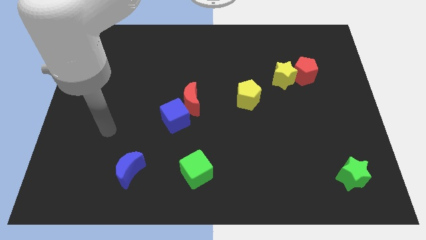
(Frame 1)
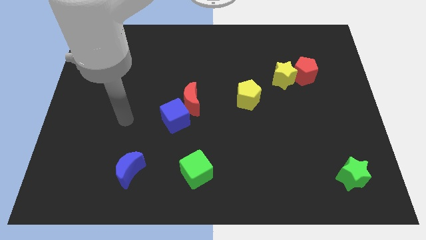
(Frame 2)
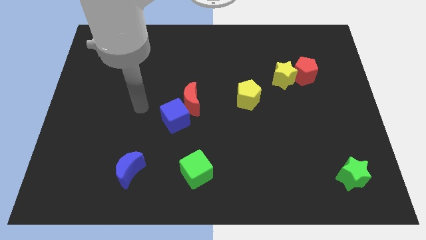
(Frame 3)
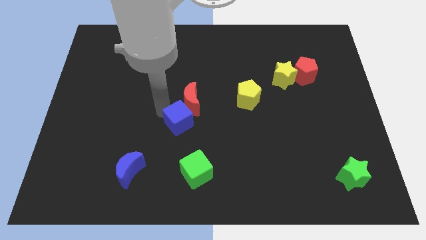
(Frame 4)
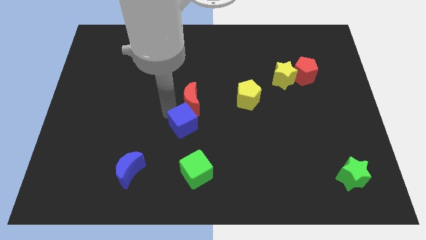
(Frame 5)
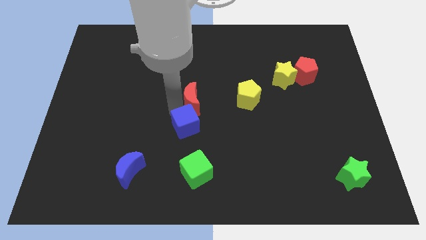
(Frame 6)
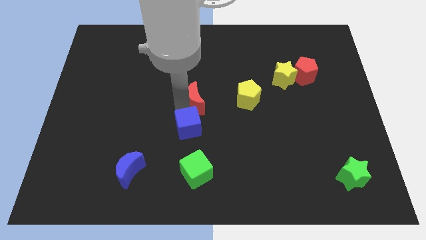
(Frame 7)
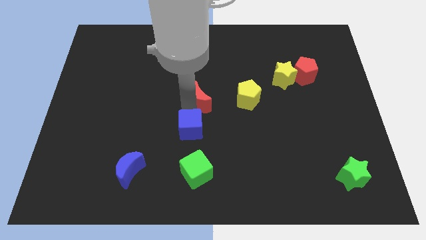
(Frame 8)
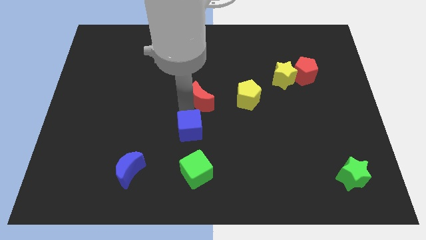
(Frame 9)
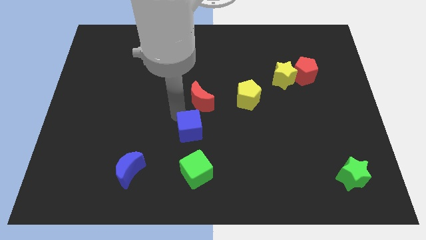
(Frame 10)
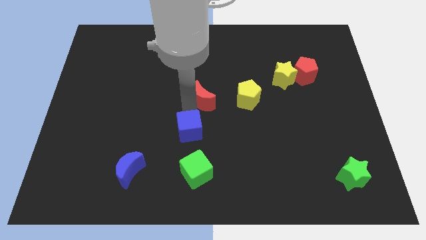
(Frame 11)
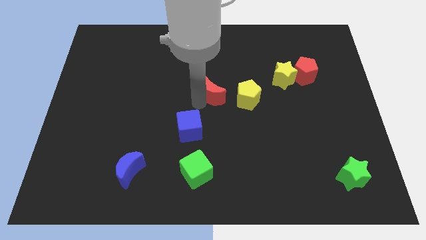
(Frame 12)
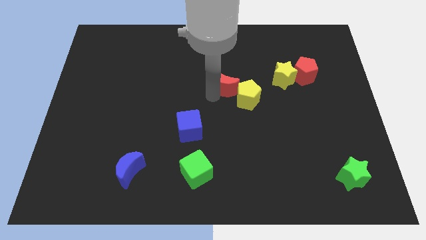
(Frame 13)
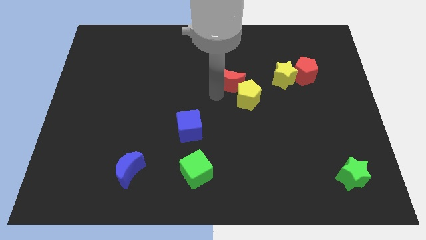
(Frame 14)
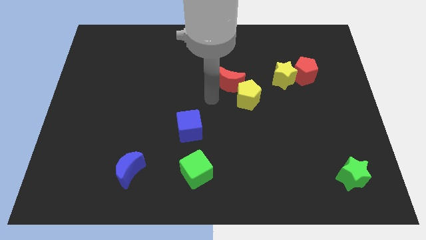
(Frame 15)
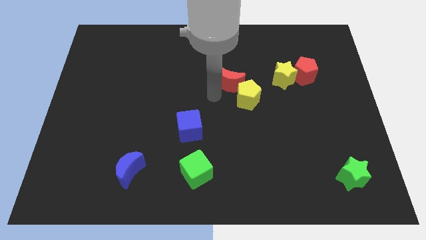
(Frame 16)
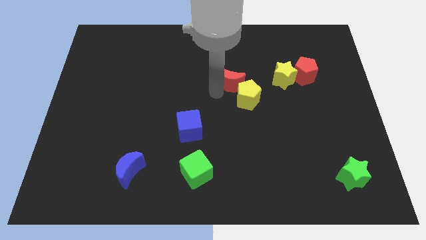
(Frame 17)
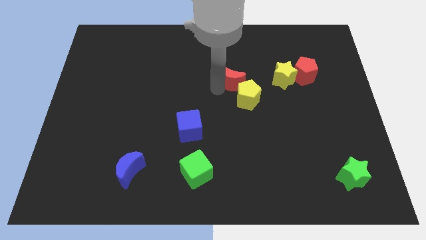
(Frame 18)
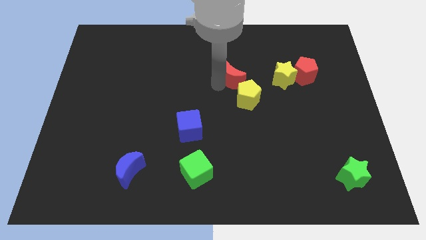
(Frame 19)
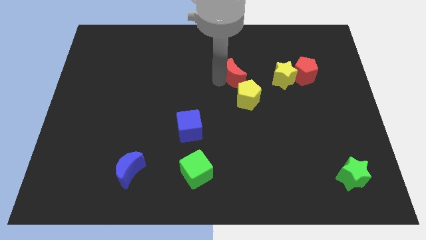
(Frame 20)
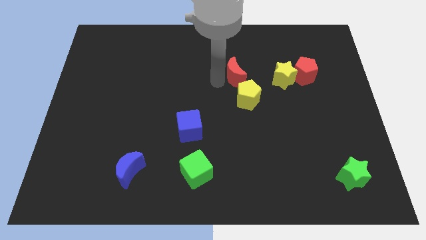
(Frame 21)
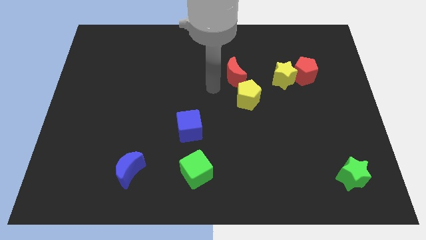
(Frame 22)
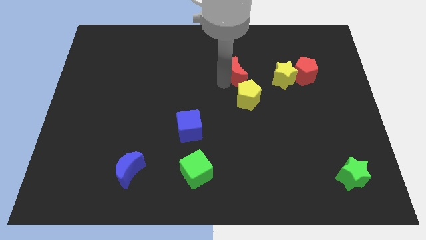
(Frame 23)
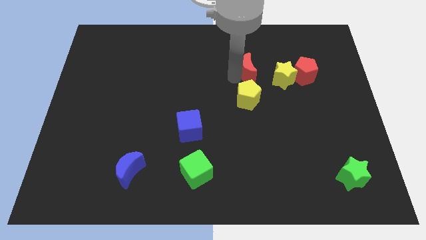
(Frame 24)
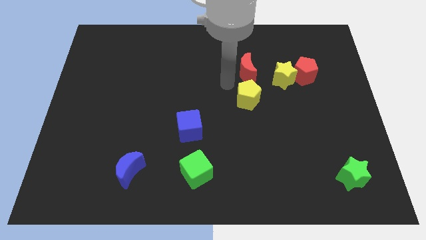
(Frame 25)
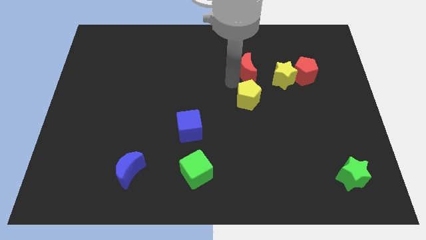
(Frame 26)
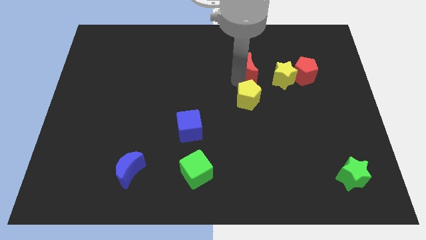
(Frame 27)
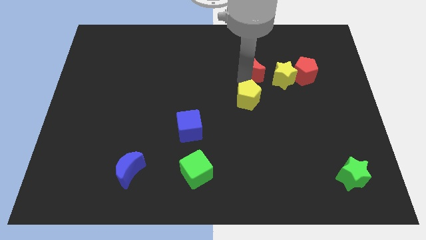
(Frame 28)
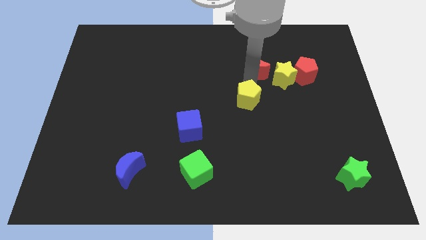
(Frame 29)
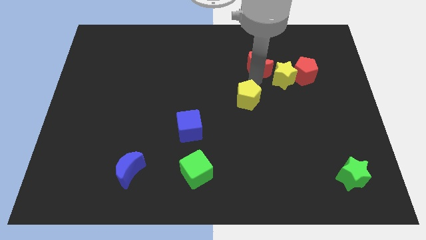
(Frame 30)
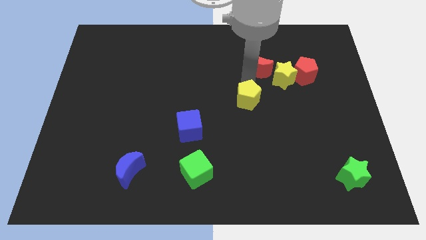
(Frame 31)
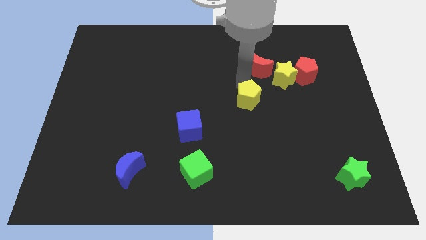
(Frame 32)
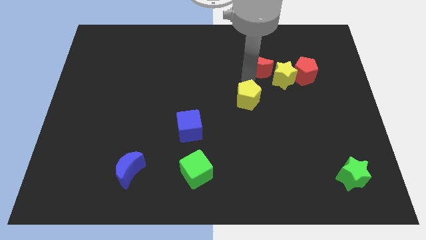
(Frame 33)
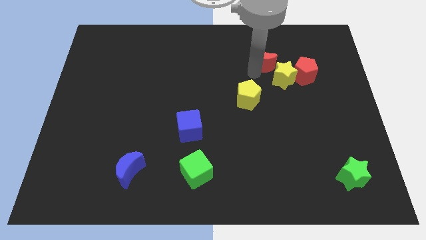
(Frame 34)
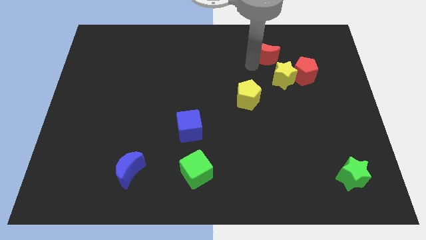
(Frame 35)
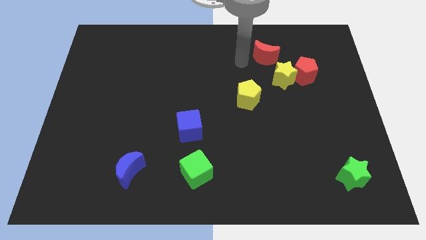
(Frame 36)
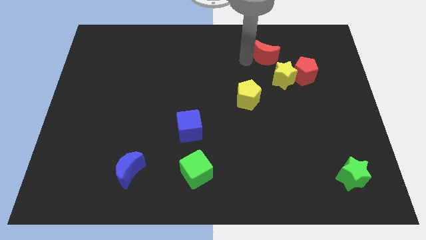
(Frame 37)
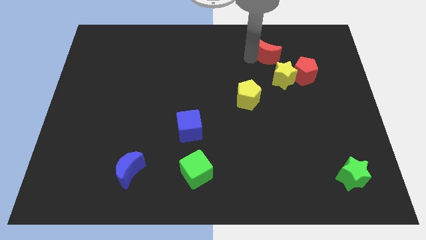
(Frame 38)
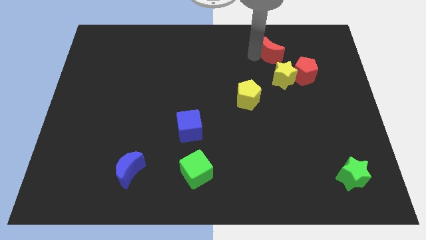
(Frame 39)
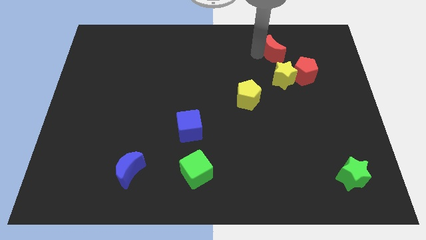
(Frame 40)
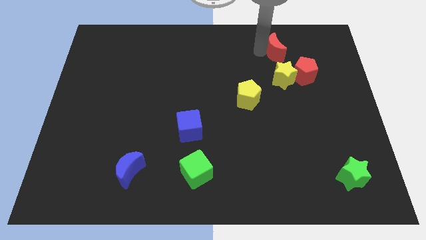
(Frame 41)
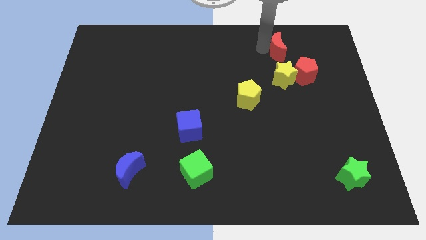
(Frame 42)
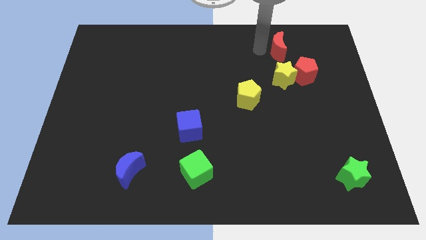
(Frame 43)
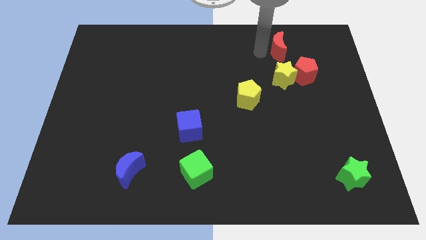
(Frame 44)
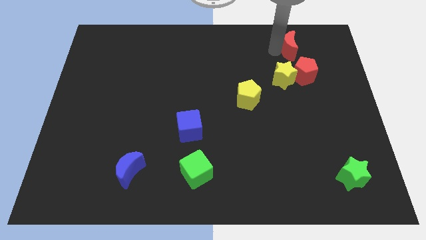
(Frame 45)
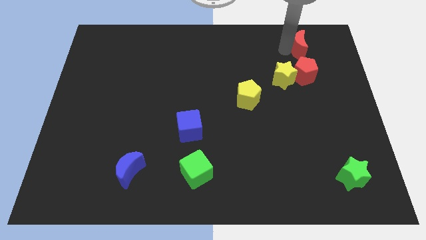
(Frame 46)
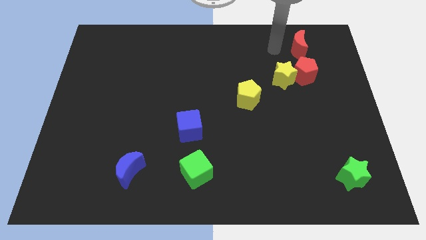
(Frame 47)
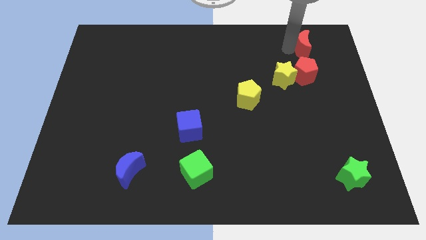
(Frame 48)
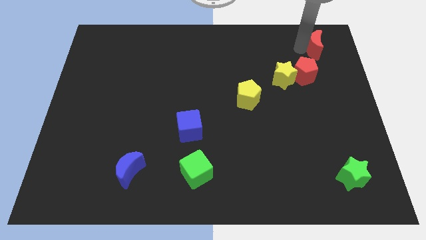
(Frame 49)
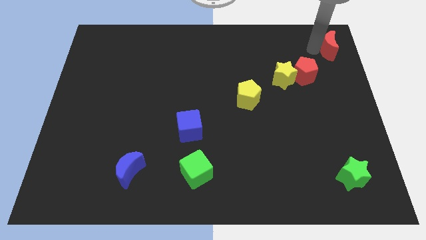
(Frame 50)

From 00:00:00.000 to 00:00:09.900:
push the red moon to the upper right corner

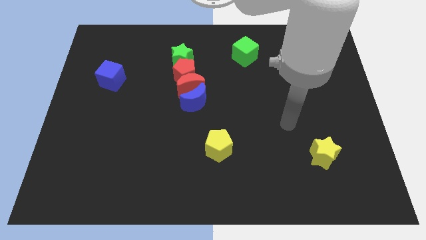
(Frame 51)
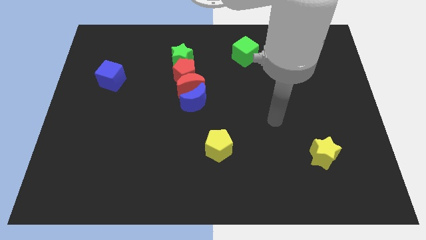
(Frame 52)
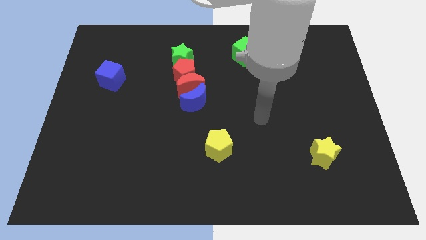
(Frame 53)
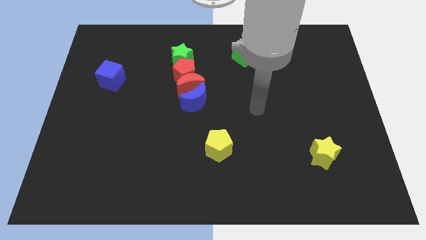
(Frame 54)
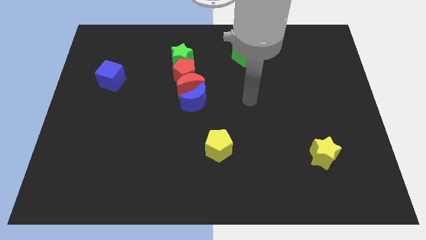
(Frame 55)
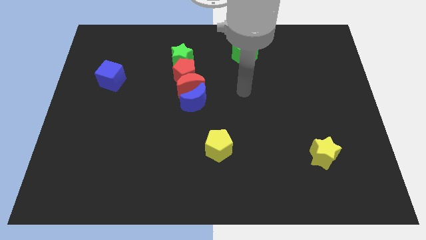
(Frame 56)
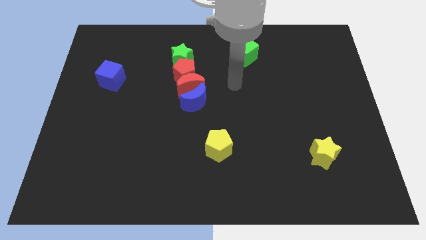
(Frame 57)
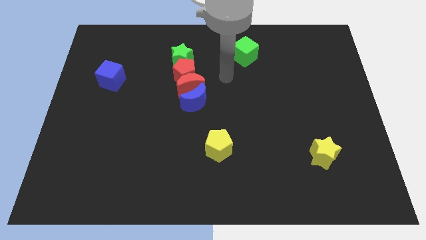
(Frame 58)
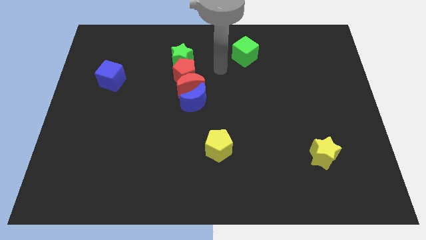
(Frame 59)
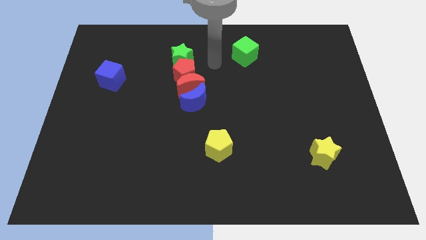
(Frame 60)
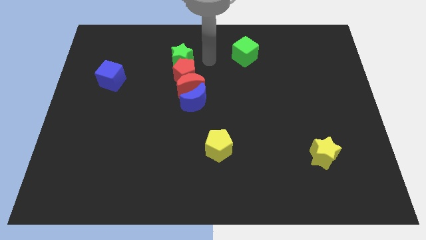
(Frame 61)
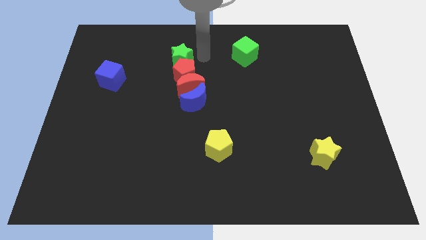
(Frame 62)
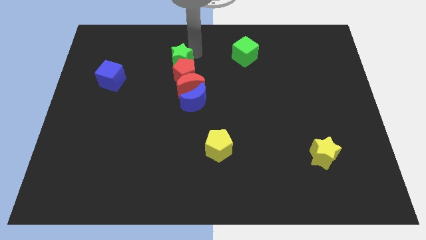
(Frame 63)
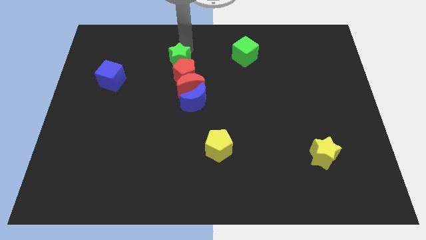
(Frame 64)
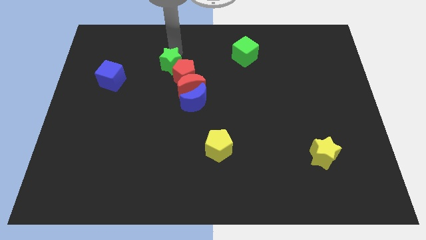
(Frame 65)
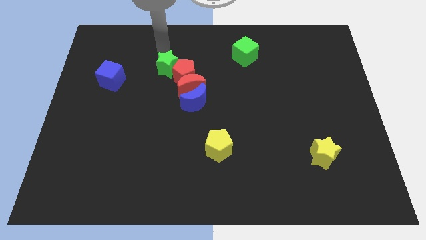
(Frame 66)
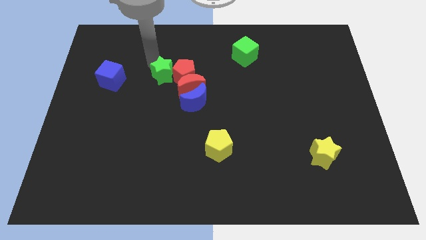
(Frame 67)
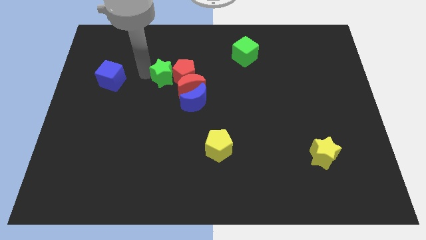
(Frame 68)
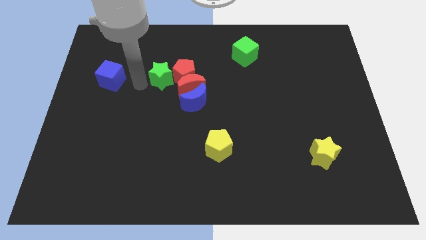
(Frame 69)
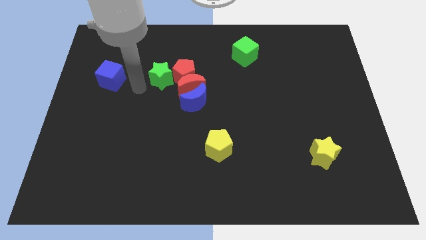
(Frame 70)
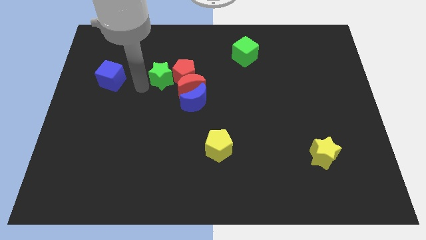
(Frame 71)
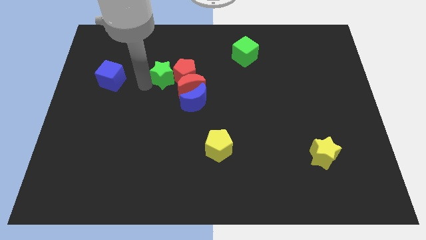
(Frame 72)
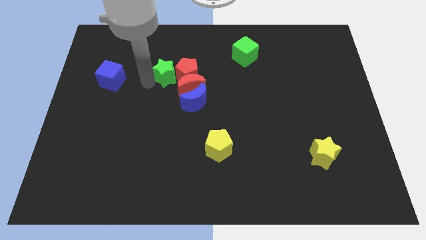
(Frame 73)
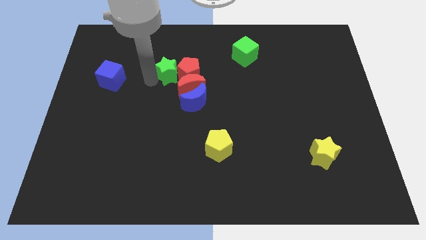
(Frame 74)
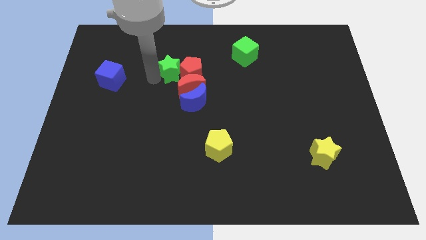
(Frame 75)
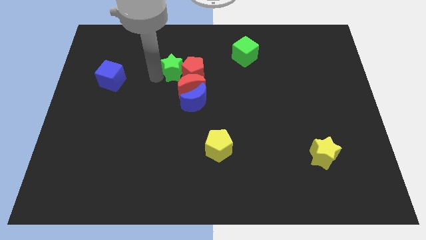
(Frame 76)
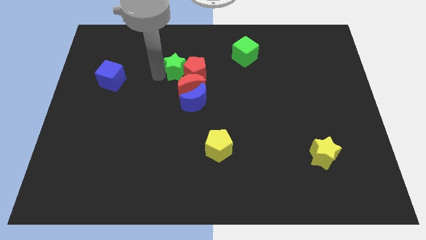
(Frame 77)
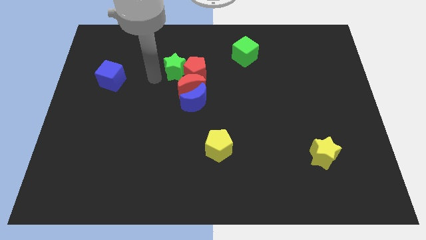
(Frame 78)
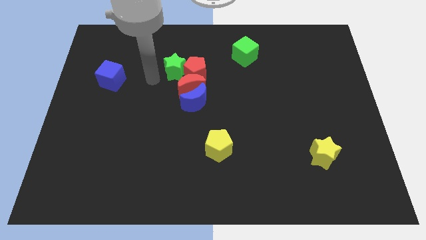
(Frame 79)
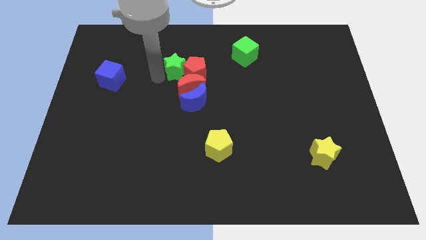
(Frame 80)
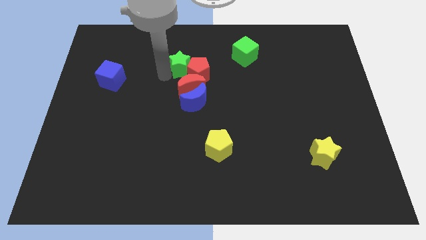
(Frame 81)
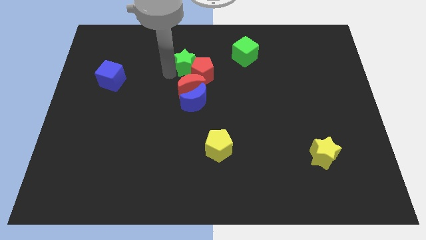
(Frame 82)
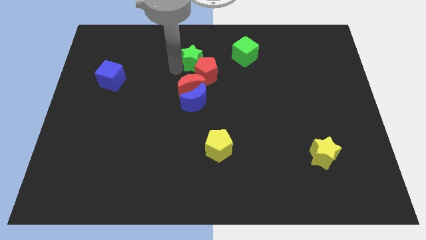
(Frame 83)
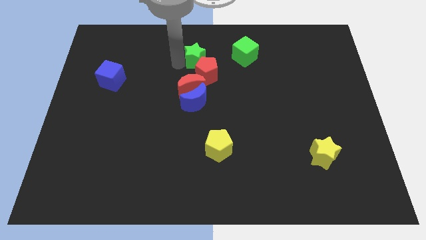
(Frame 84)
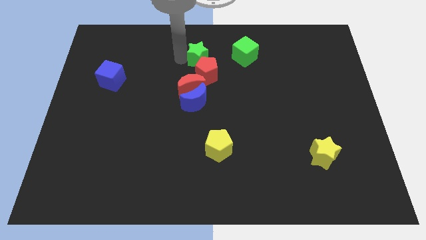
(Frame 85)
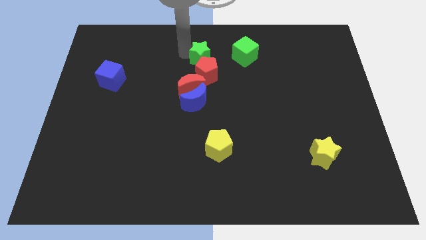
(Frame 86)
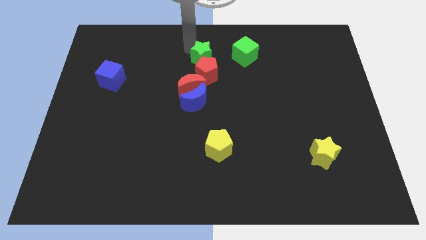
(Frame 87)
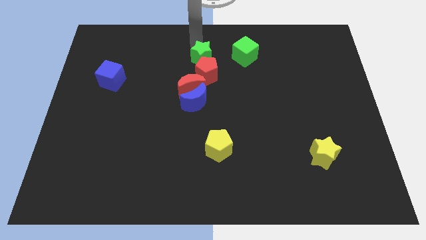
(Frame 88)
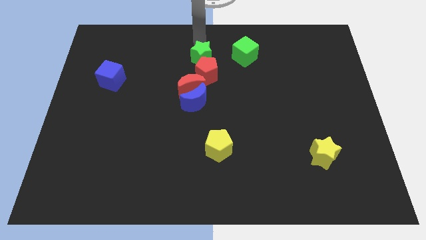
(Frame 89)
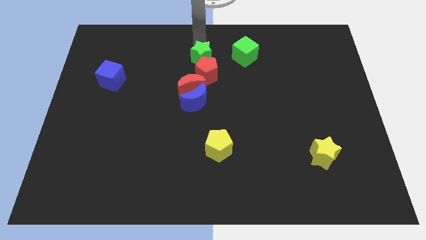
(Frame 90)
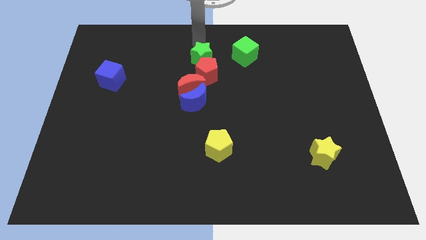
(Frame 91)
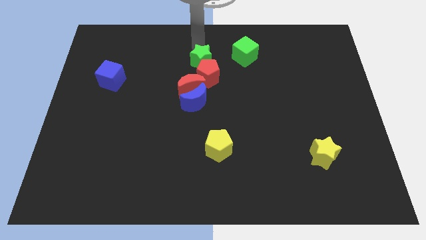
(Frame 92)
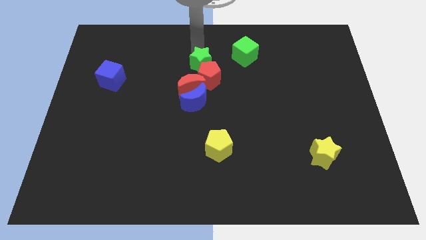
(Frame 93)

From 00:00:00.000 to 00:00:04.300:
put the green star to the center of the board
